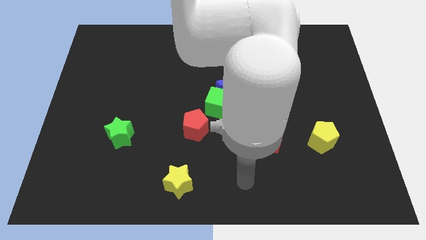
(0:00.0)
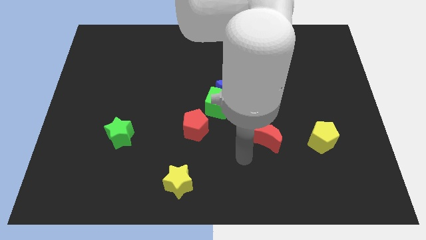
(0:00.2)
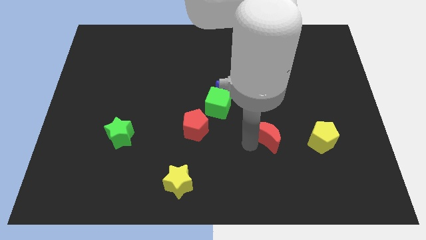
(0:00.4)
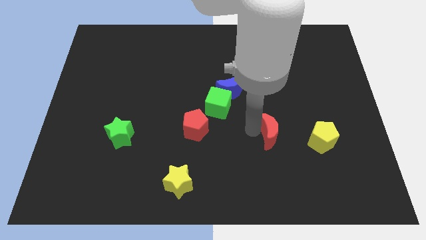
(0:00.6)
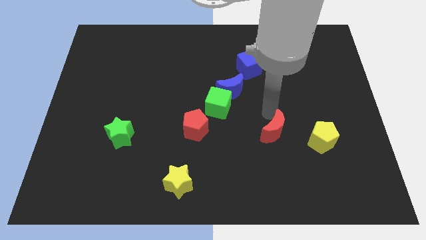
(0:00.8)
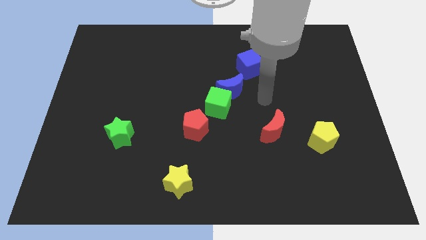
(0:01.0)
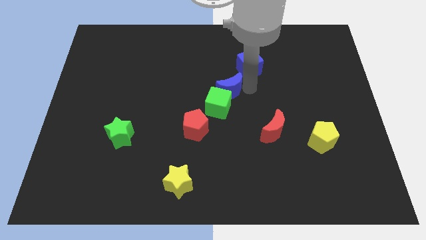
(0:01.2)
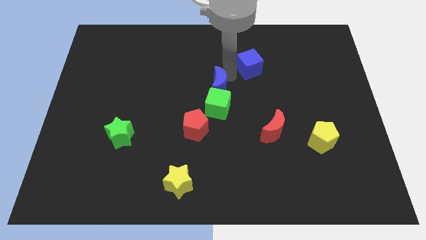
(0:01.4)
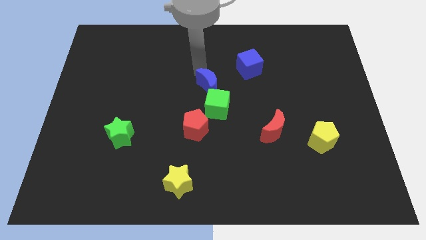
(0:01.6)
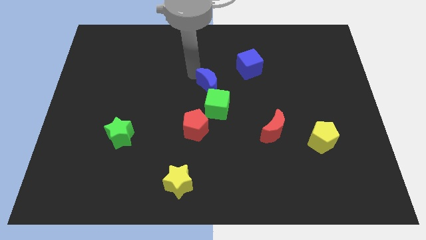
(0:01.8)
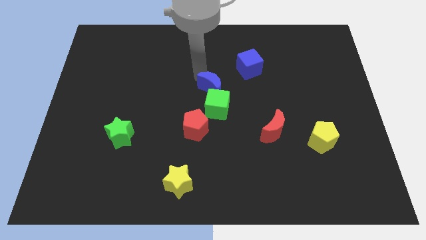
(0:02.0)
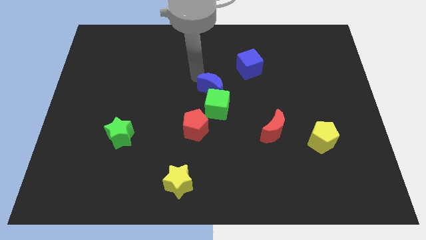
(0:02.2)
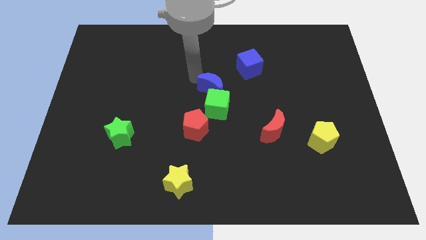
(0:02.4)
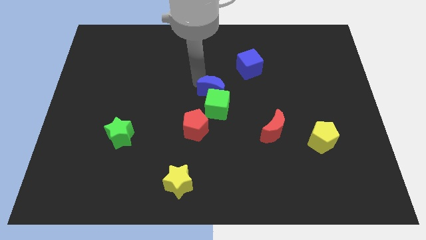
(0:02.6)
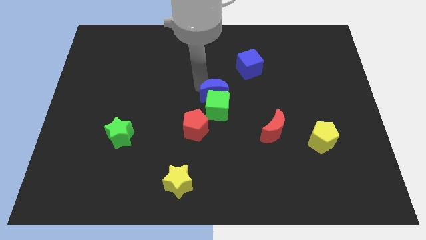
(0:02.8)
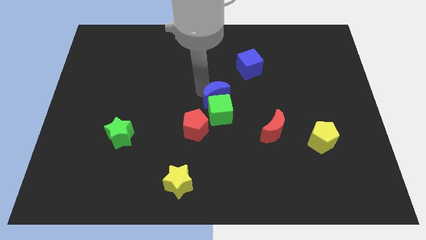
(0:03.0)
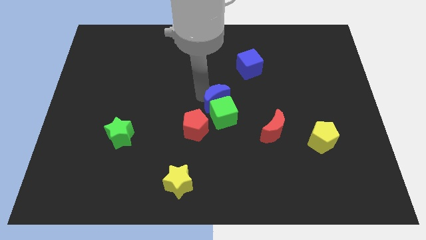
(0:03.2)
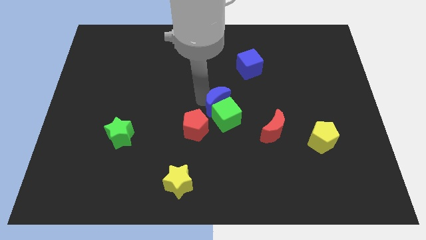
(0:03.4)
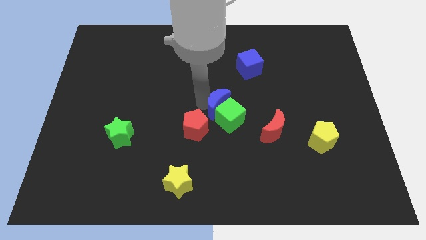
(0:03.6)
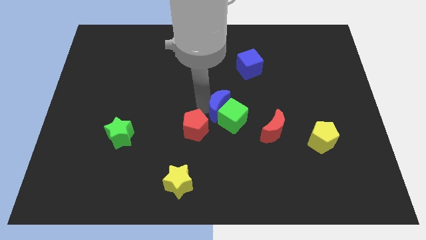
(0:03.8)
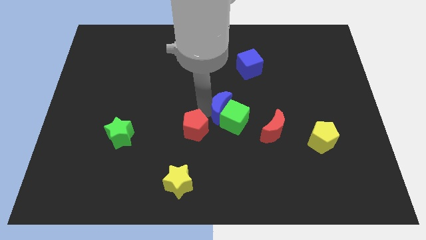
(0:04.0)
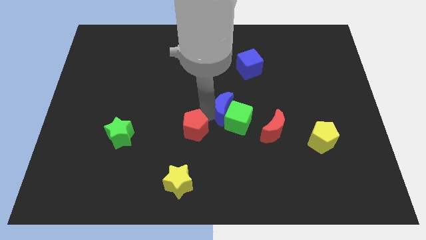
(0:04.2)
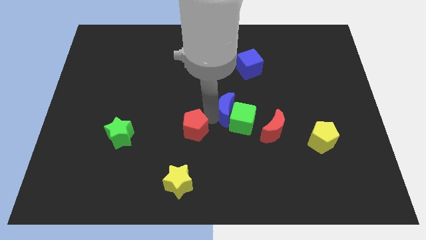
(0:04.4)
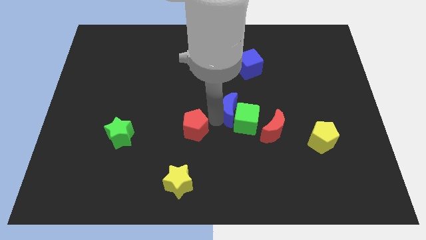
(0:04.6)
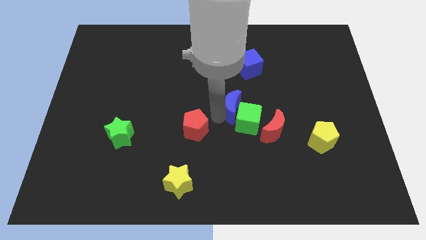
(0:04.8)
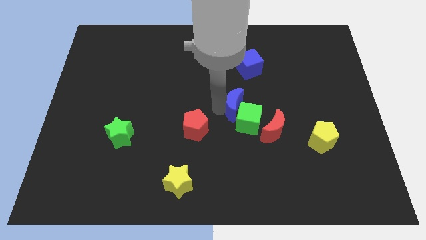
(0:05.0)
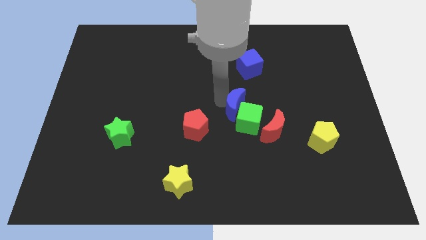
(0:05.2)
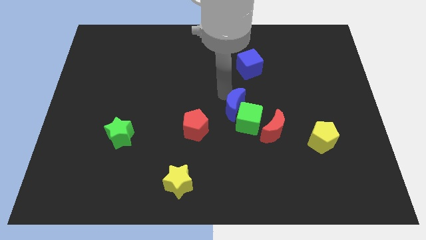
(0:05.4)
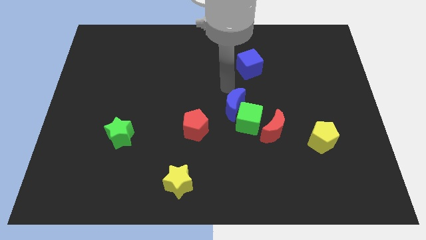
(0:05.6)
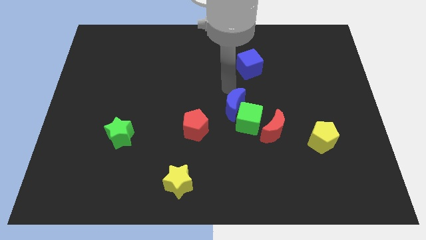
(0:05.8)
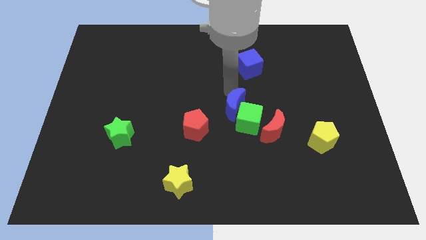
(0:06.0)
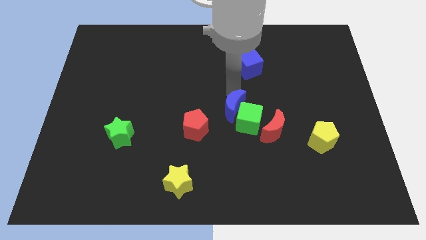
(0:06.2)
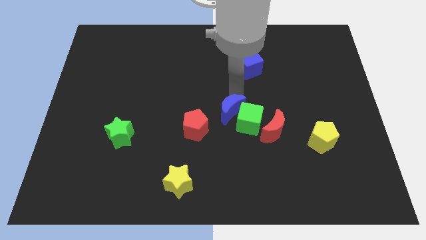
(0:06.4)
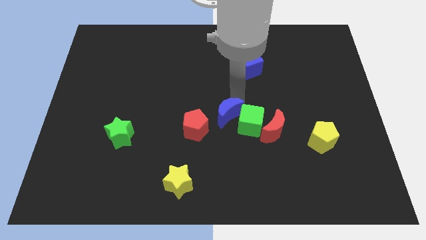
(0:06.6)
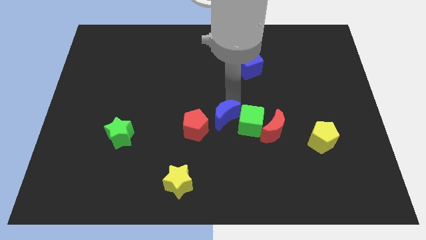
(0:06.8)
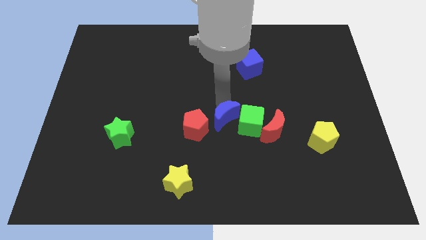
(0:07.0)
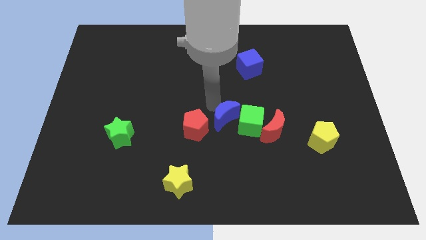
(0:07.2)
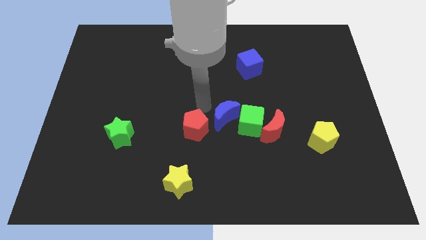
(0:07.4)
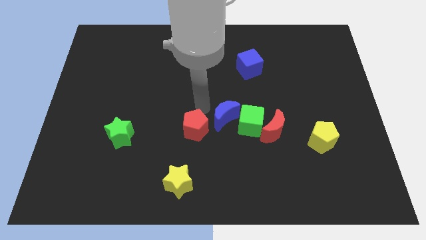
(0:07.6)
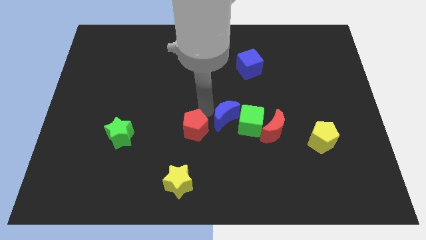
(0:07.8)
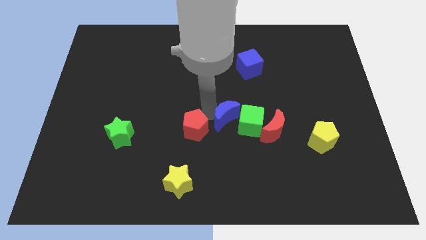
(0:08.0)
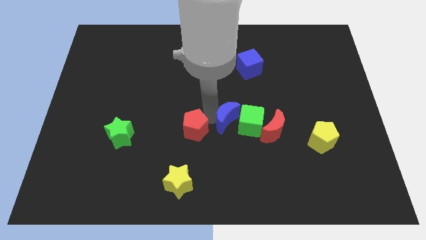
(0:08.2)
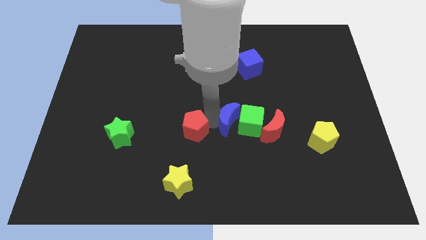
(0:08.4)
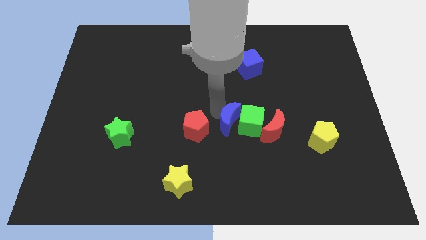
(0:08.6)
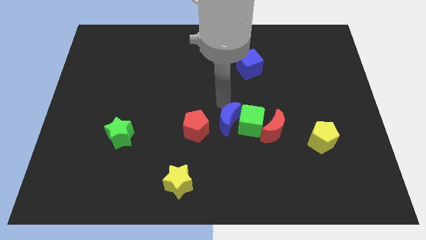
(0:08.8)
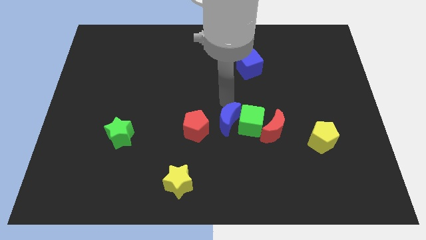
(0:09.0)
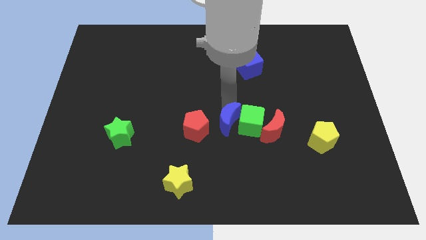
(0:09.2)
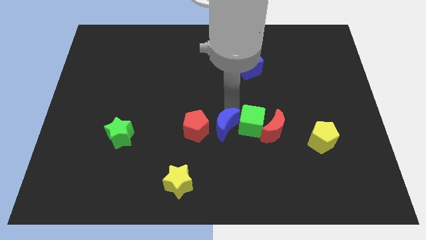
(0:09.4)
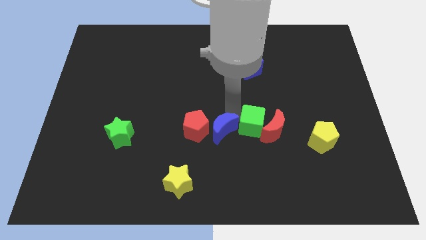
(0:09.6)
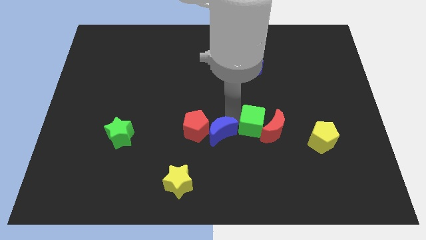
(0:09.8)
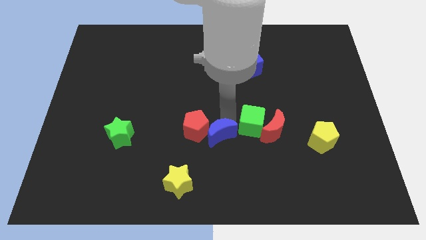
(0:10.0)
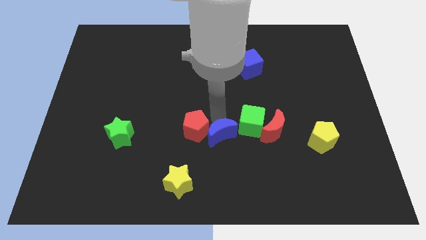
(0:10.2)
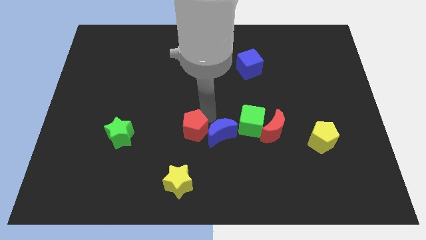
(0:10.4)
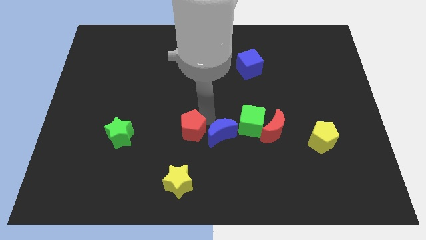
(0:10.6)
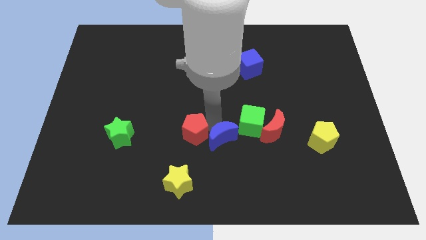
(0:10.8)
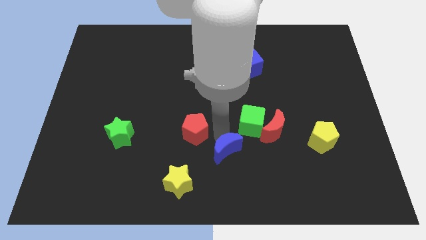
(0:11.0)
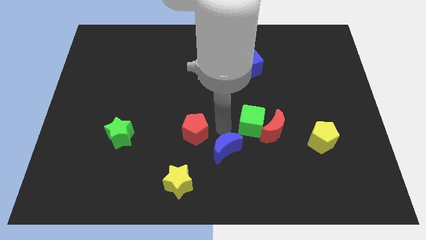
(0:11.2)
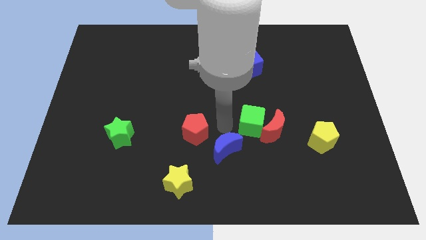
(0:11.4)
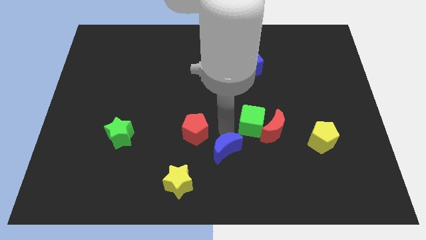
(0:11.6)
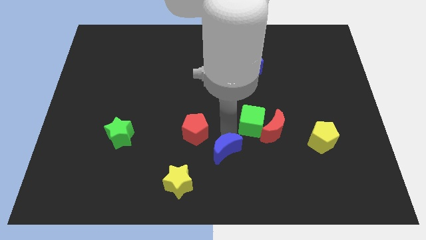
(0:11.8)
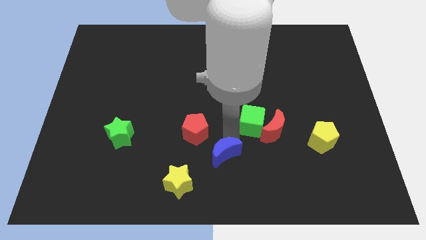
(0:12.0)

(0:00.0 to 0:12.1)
move the blue moon to the bottom
